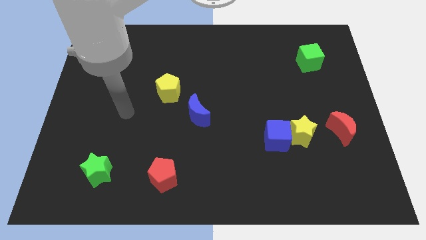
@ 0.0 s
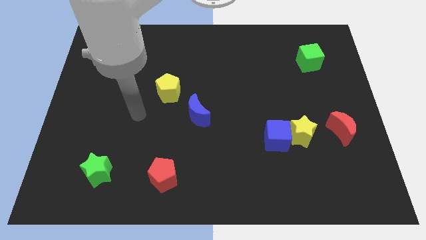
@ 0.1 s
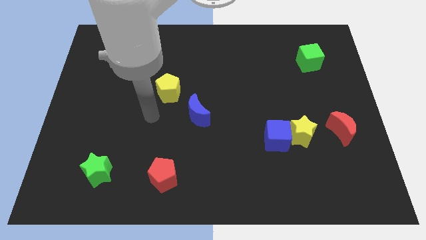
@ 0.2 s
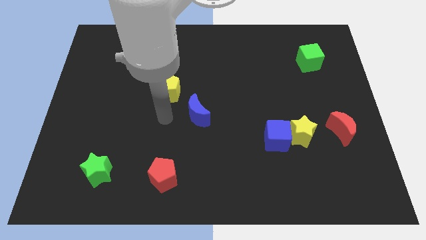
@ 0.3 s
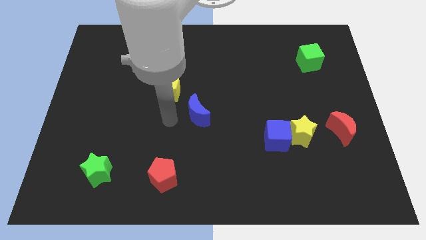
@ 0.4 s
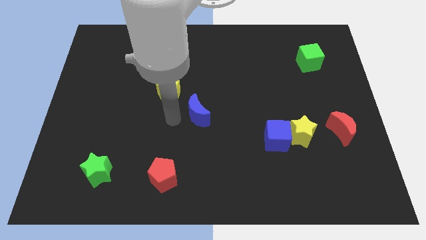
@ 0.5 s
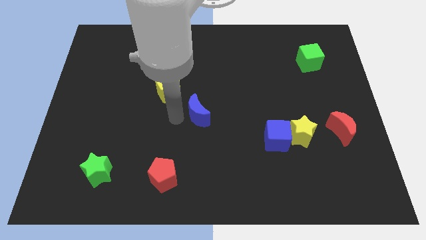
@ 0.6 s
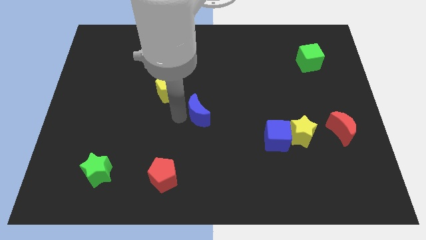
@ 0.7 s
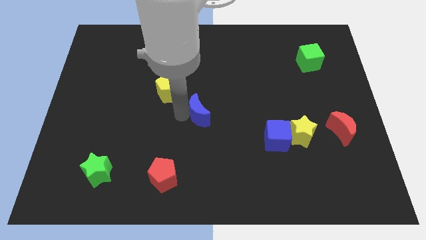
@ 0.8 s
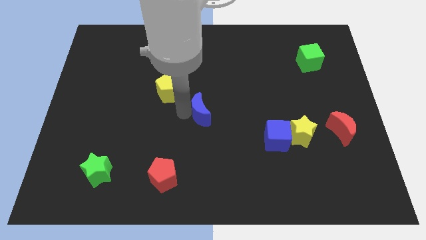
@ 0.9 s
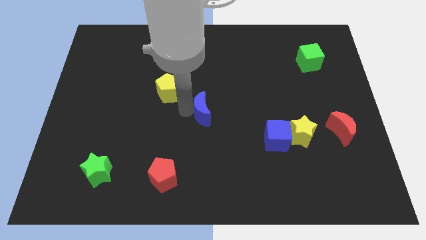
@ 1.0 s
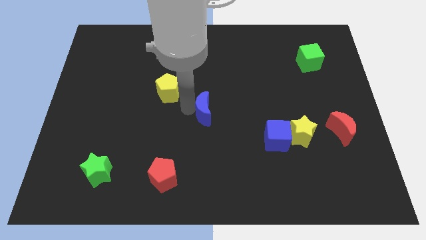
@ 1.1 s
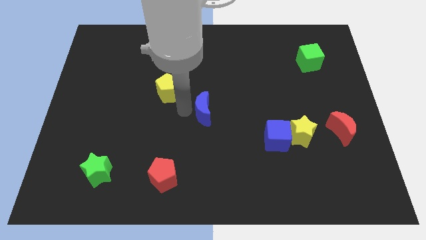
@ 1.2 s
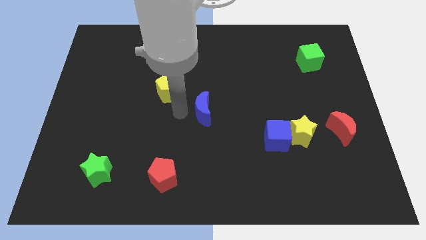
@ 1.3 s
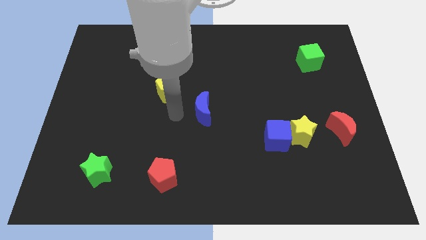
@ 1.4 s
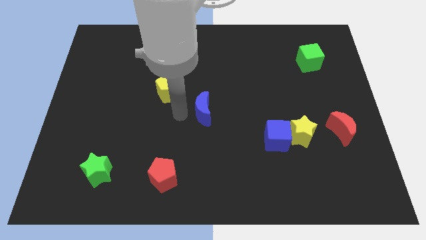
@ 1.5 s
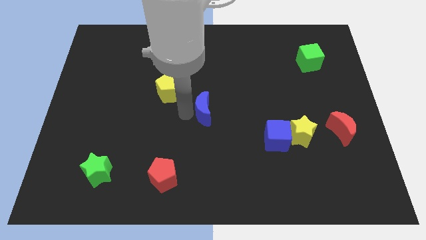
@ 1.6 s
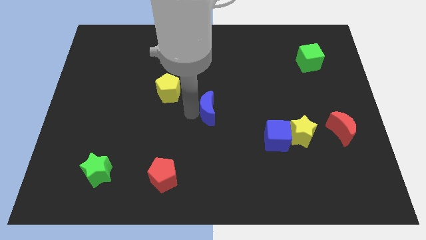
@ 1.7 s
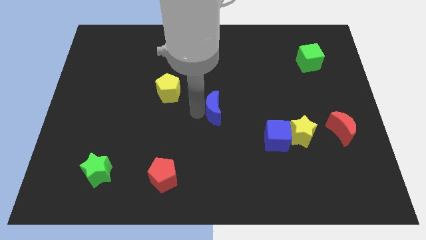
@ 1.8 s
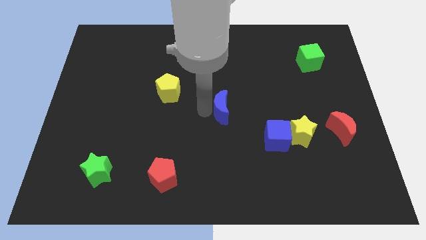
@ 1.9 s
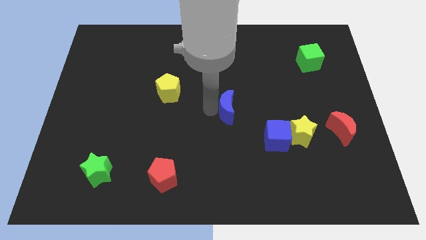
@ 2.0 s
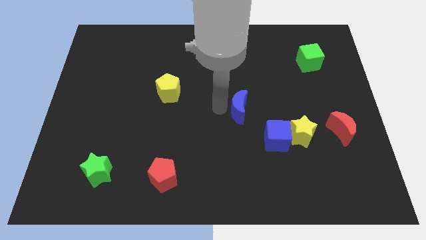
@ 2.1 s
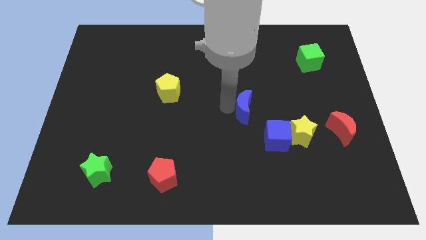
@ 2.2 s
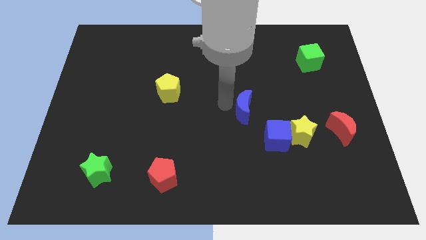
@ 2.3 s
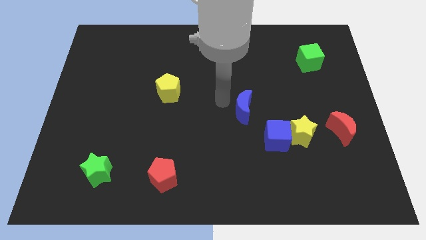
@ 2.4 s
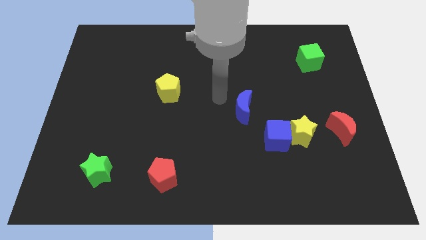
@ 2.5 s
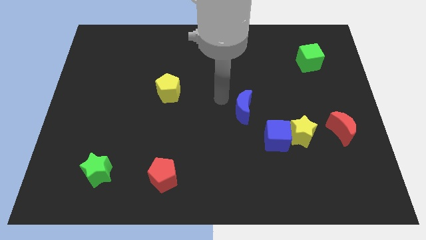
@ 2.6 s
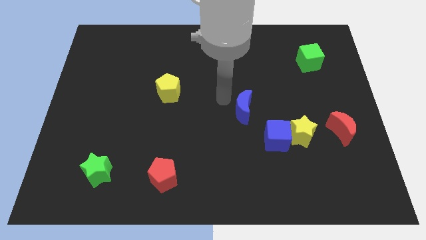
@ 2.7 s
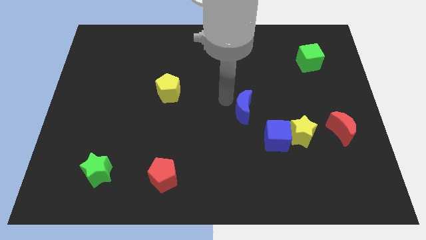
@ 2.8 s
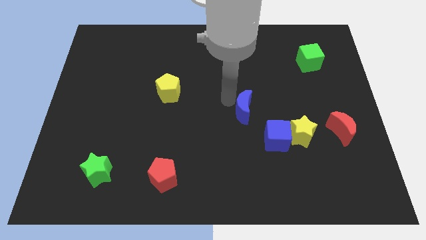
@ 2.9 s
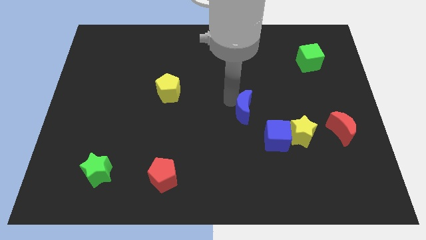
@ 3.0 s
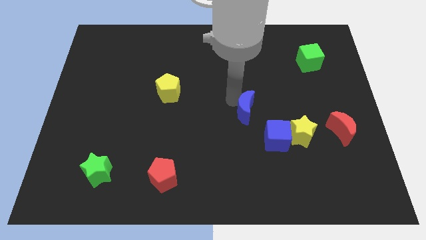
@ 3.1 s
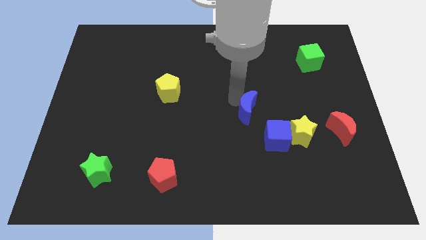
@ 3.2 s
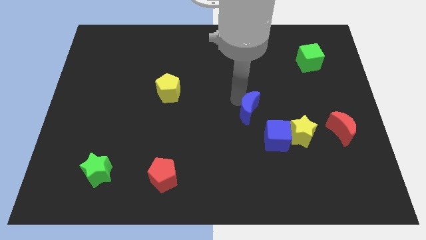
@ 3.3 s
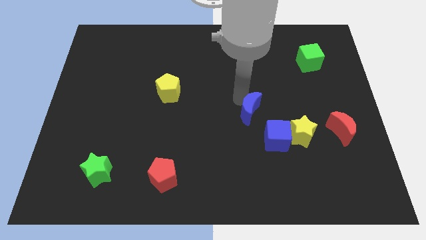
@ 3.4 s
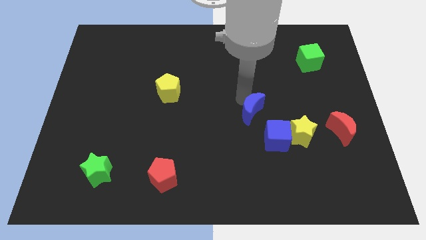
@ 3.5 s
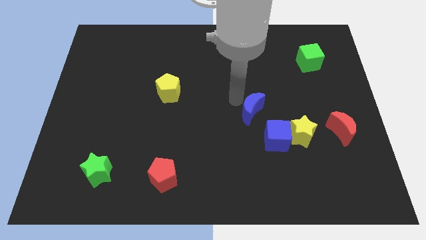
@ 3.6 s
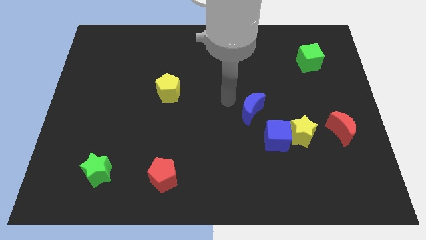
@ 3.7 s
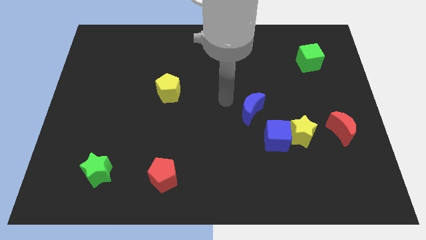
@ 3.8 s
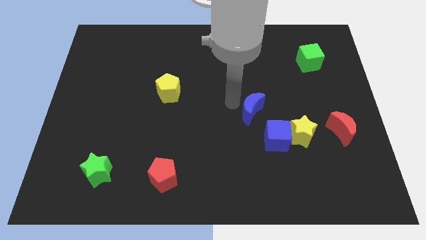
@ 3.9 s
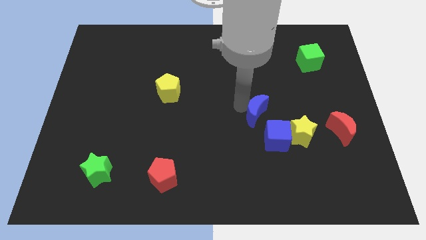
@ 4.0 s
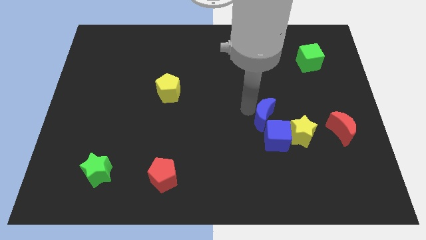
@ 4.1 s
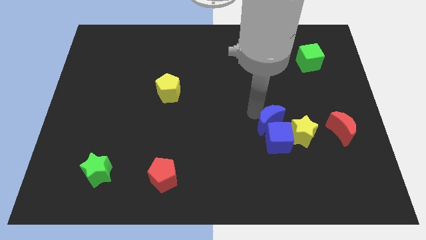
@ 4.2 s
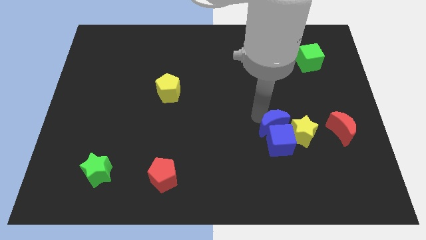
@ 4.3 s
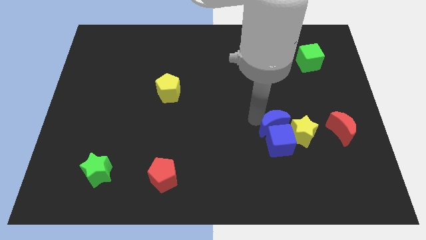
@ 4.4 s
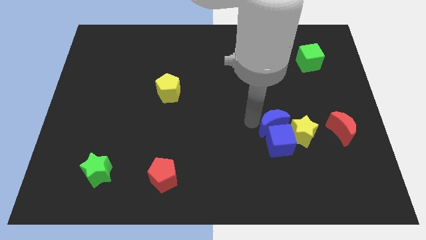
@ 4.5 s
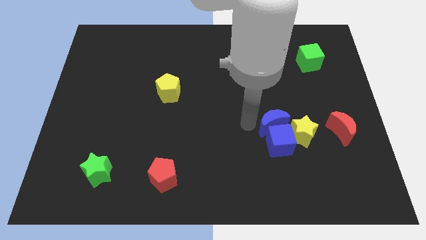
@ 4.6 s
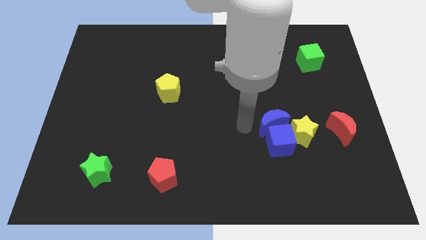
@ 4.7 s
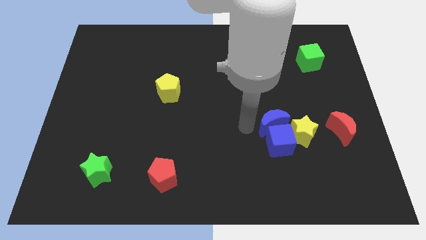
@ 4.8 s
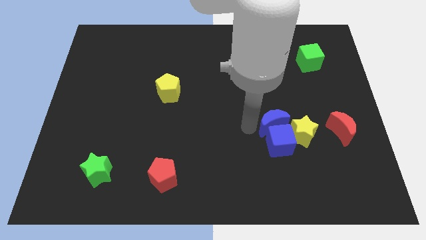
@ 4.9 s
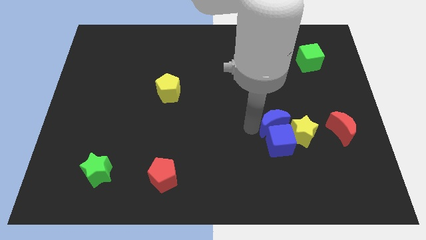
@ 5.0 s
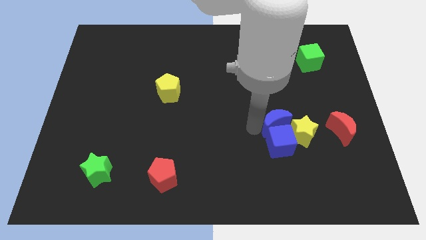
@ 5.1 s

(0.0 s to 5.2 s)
push the blue moon close to the yellow star

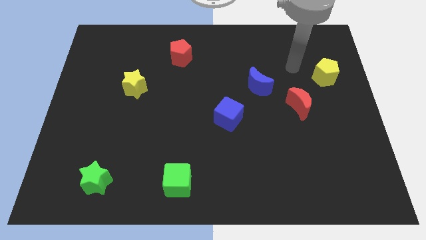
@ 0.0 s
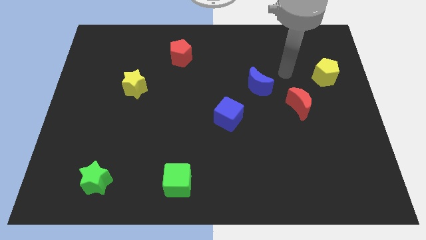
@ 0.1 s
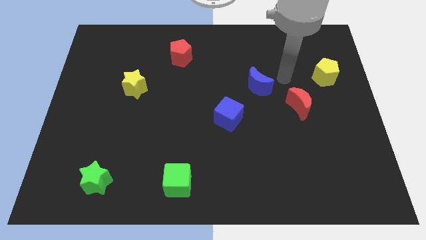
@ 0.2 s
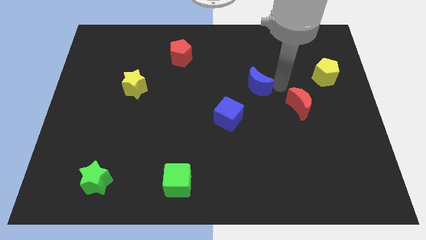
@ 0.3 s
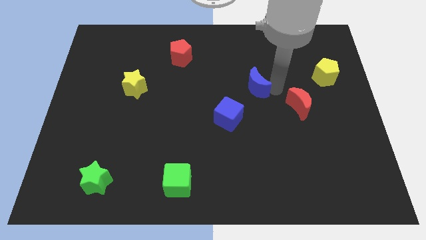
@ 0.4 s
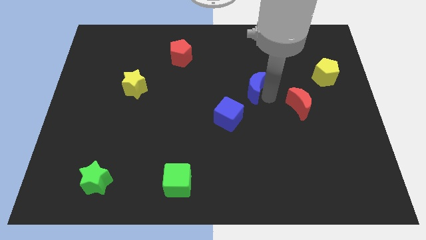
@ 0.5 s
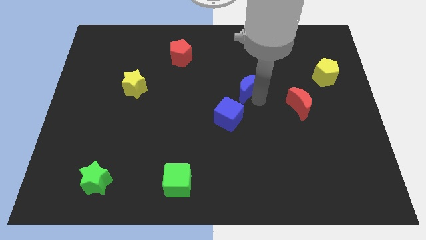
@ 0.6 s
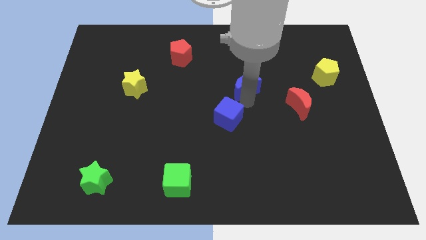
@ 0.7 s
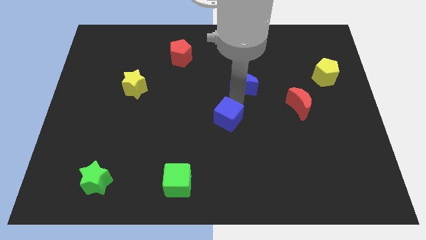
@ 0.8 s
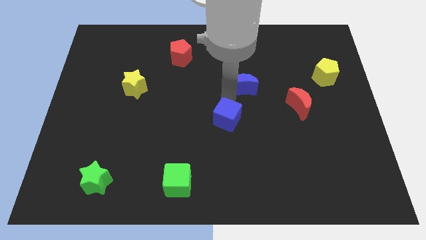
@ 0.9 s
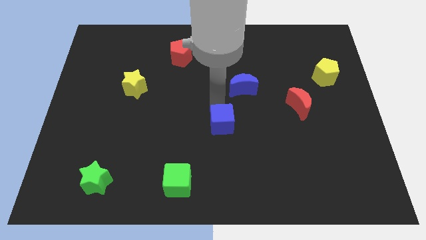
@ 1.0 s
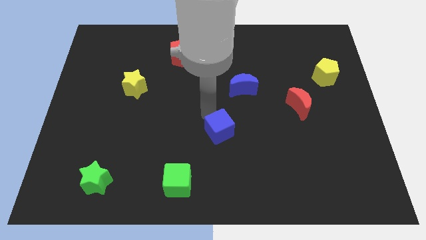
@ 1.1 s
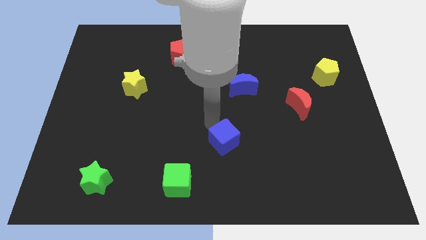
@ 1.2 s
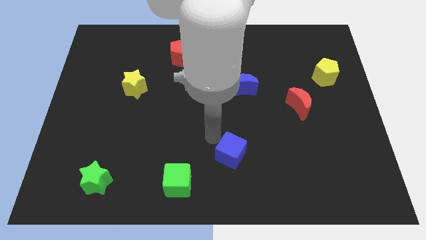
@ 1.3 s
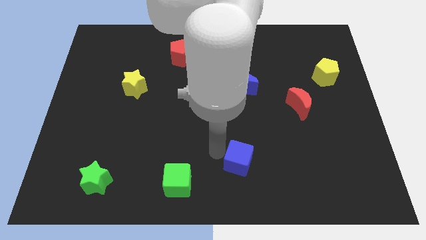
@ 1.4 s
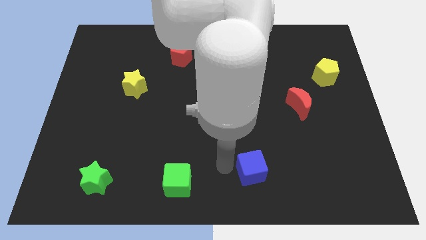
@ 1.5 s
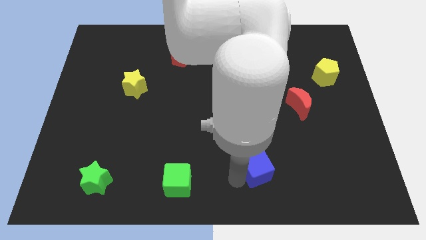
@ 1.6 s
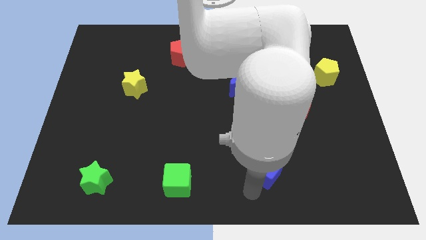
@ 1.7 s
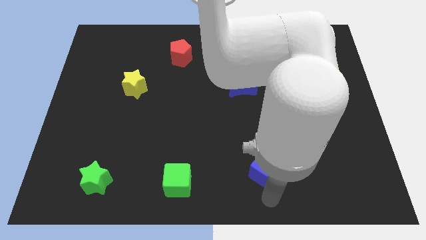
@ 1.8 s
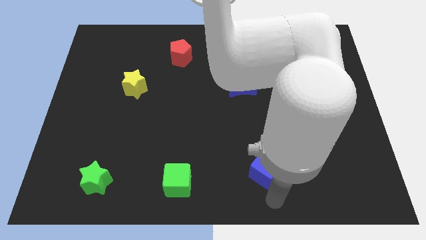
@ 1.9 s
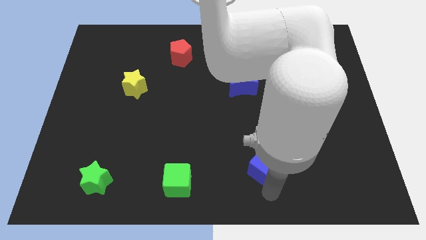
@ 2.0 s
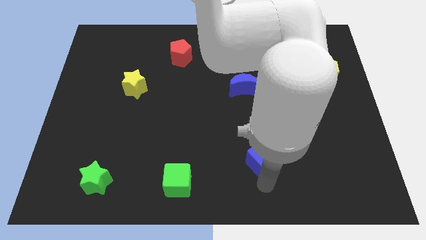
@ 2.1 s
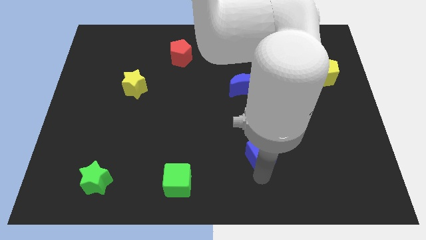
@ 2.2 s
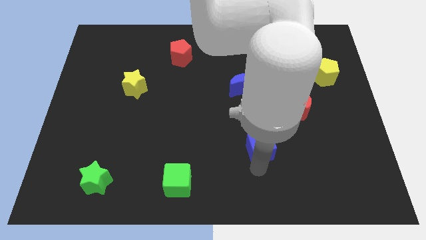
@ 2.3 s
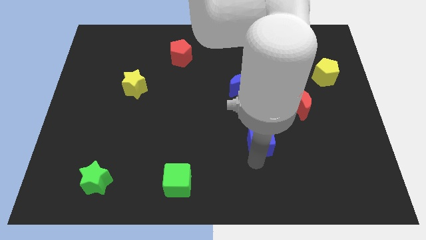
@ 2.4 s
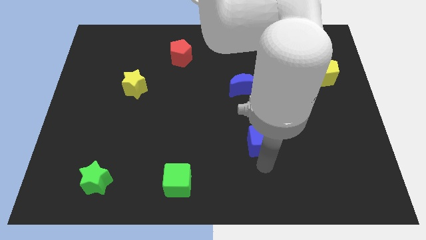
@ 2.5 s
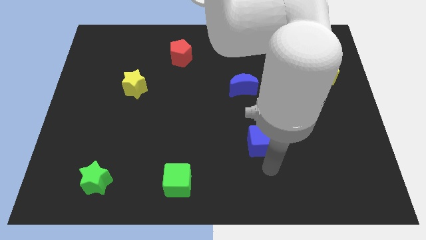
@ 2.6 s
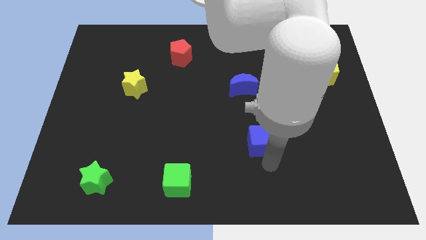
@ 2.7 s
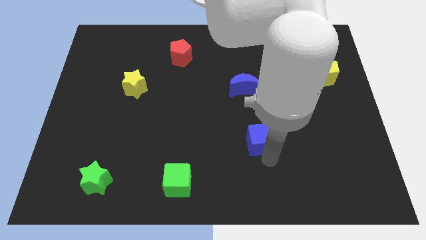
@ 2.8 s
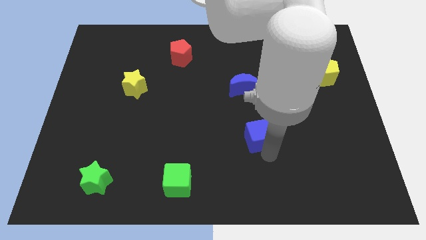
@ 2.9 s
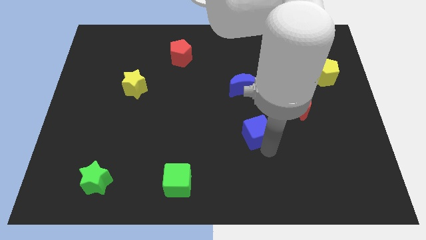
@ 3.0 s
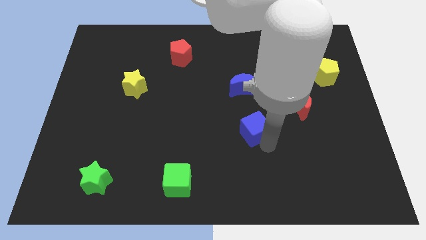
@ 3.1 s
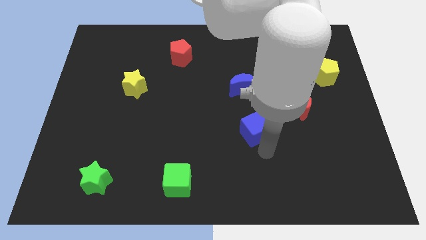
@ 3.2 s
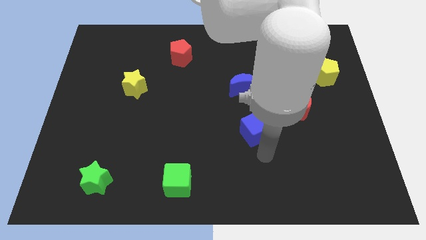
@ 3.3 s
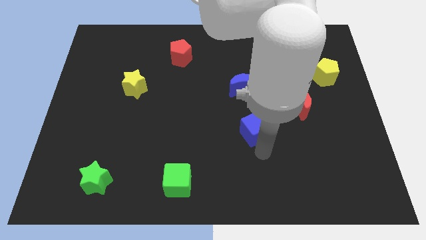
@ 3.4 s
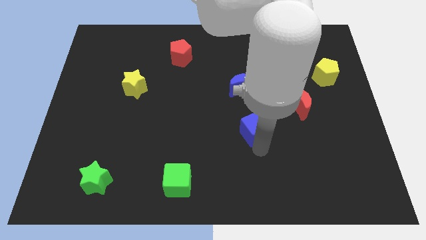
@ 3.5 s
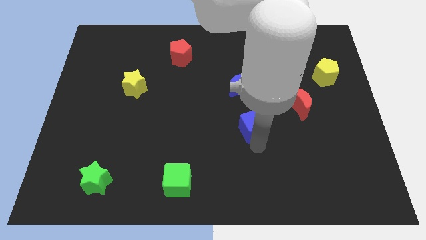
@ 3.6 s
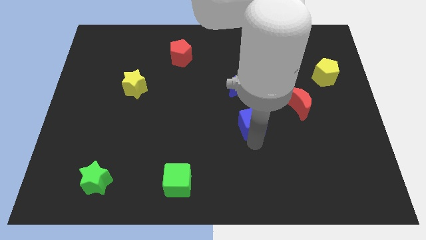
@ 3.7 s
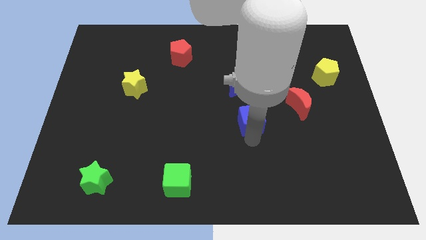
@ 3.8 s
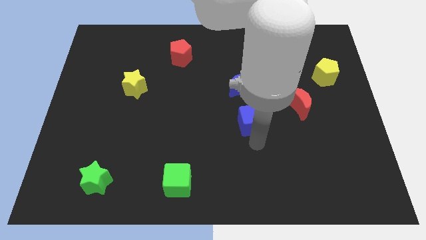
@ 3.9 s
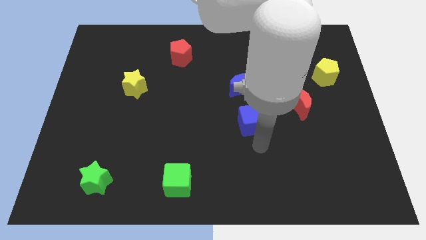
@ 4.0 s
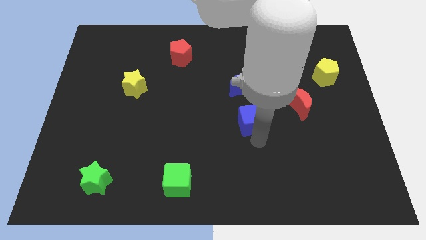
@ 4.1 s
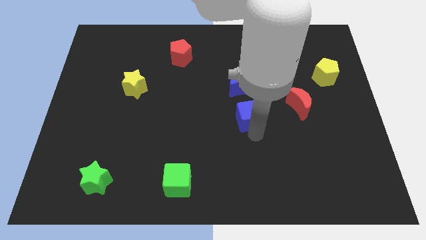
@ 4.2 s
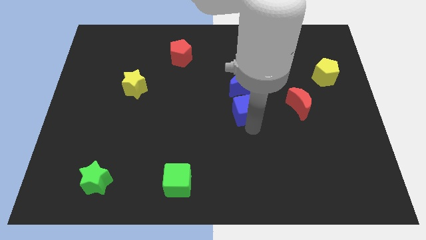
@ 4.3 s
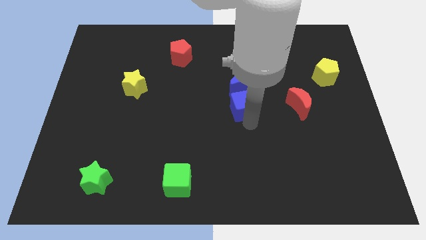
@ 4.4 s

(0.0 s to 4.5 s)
put the blue cube to the blue moon
